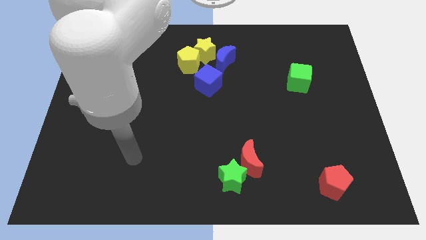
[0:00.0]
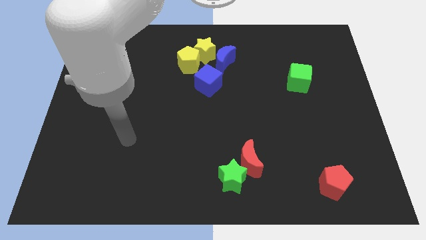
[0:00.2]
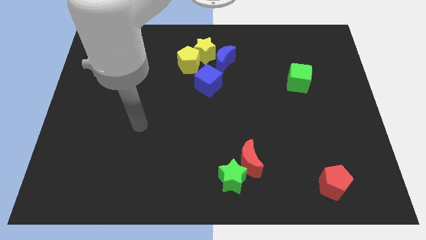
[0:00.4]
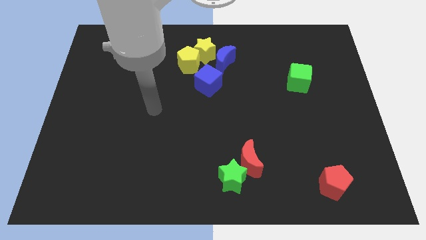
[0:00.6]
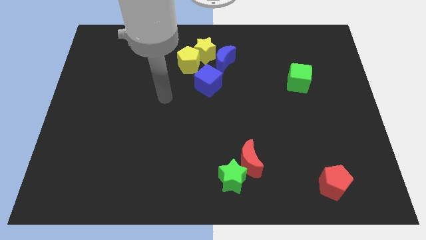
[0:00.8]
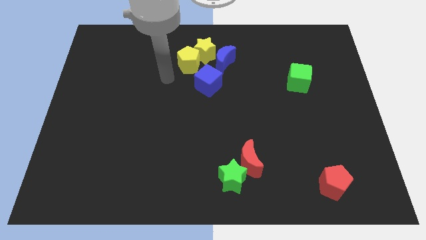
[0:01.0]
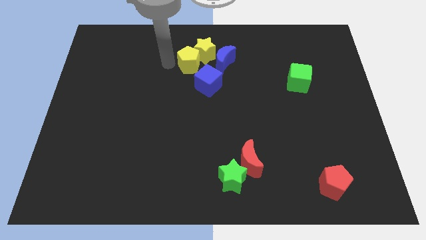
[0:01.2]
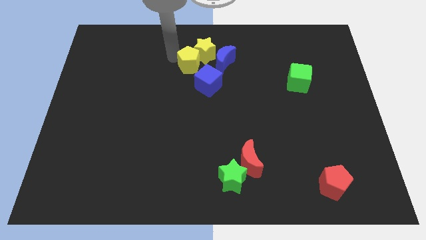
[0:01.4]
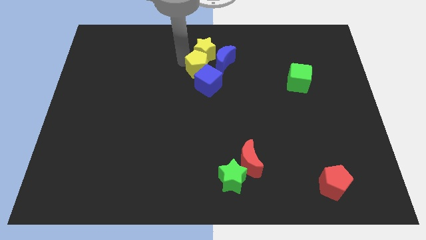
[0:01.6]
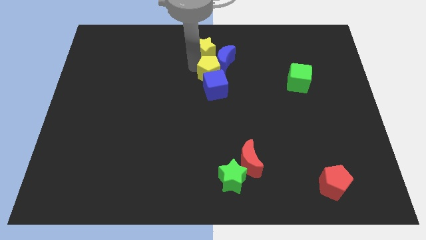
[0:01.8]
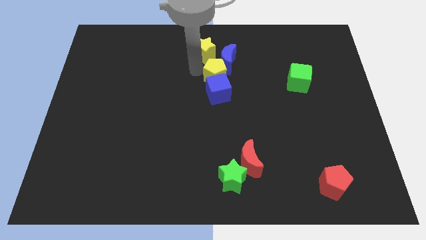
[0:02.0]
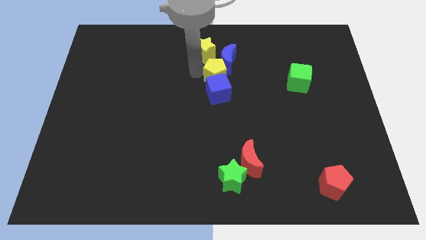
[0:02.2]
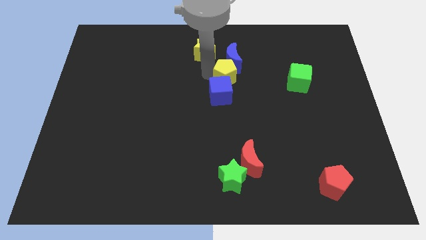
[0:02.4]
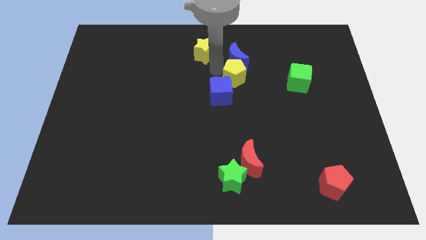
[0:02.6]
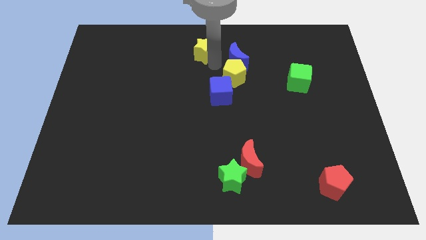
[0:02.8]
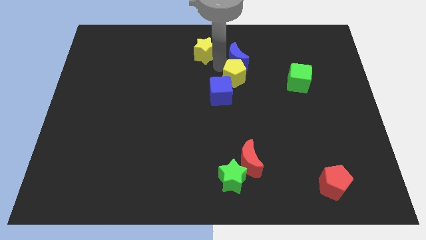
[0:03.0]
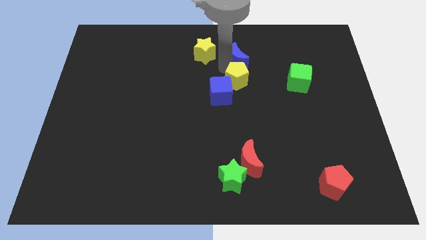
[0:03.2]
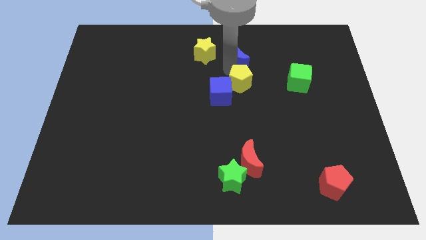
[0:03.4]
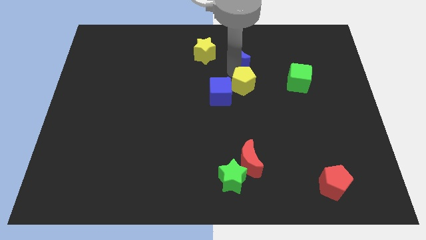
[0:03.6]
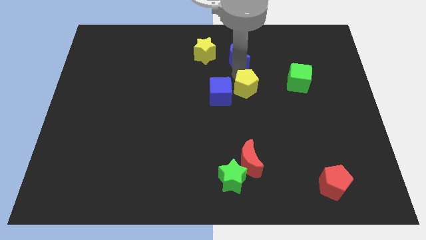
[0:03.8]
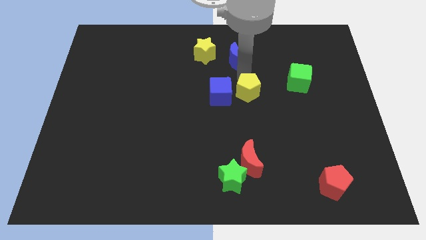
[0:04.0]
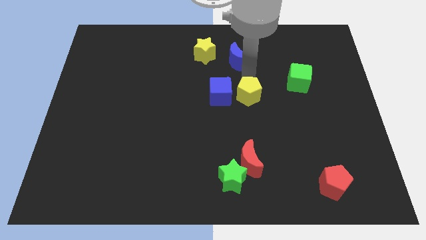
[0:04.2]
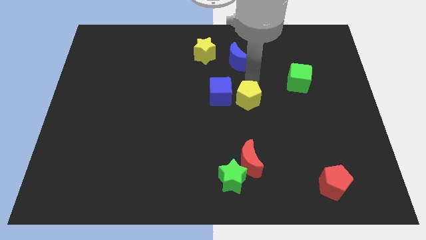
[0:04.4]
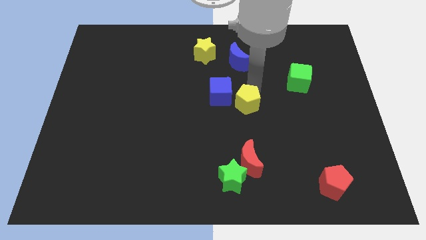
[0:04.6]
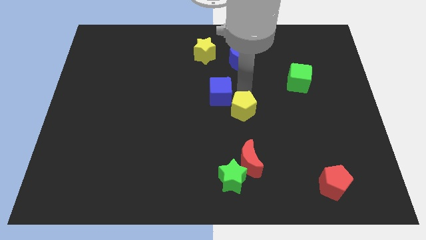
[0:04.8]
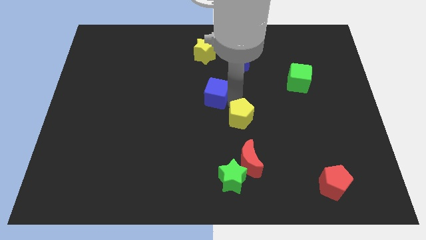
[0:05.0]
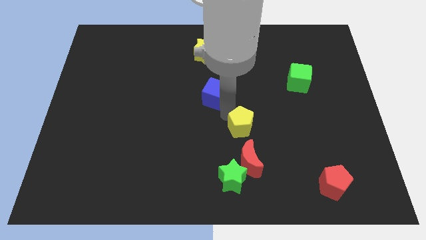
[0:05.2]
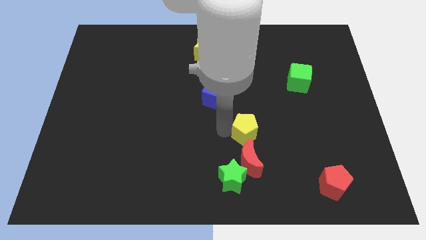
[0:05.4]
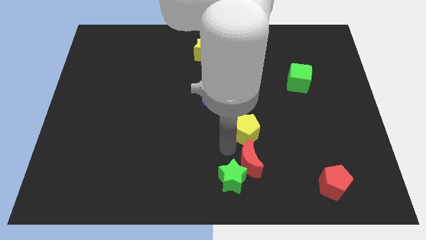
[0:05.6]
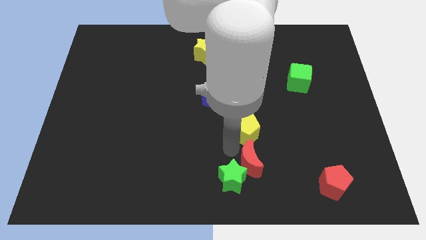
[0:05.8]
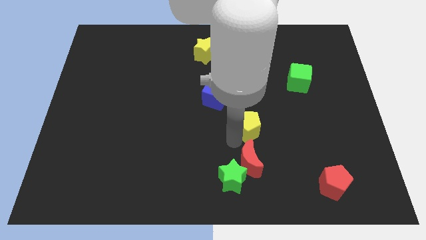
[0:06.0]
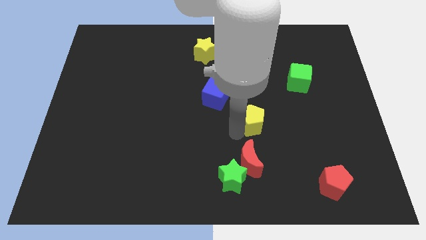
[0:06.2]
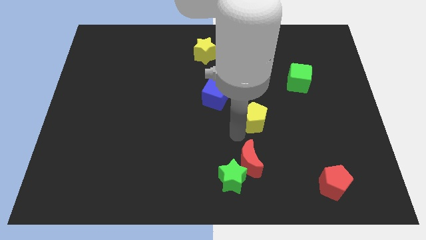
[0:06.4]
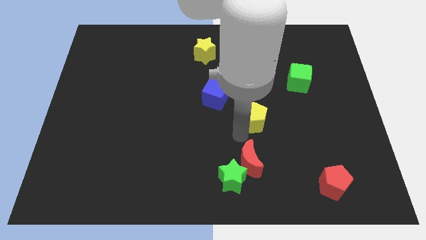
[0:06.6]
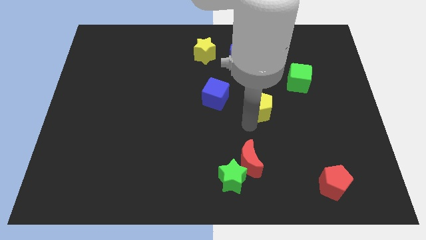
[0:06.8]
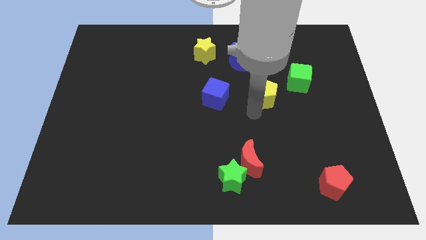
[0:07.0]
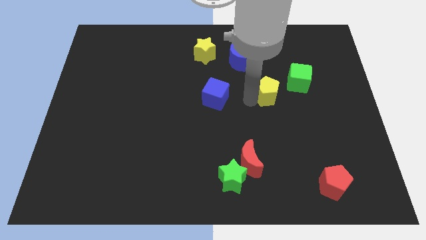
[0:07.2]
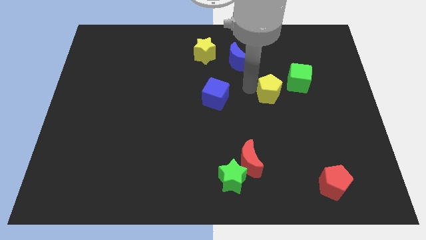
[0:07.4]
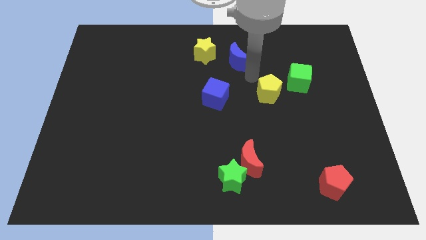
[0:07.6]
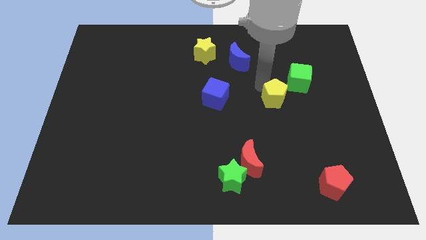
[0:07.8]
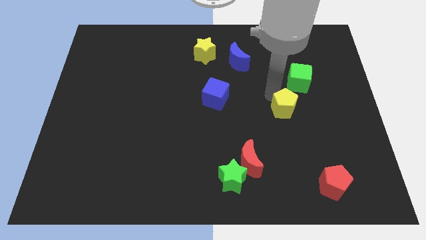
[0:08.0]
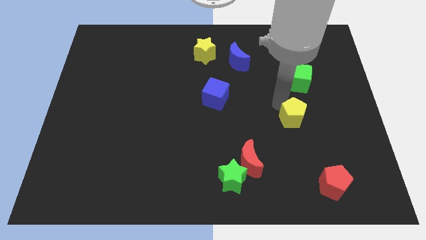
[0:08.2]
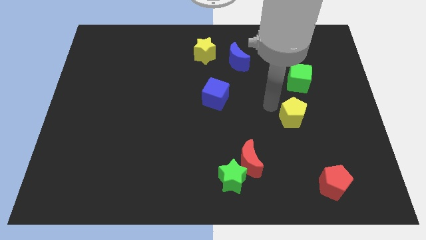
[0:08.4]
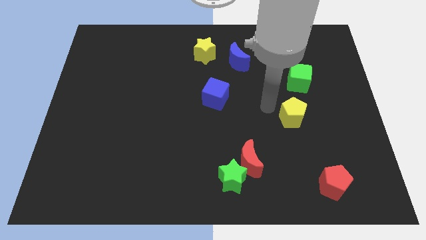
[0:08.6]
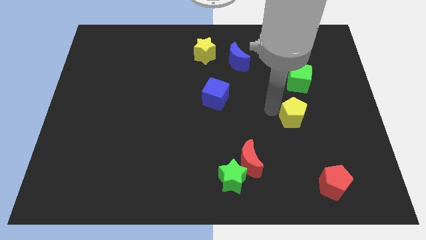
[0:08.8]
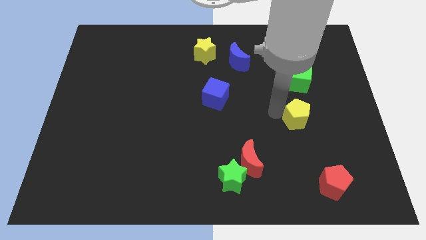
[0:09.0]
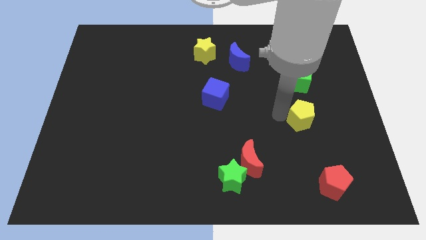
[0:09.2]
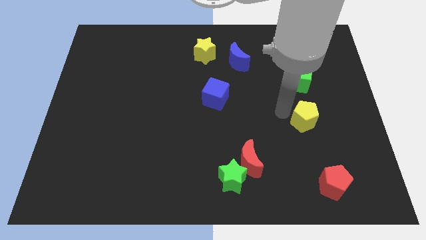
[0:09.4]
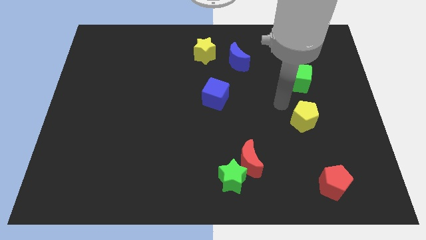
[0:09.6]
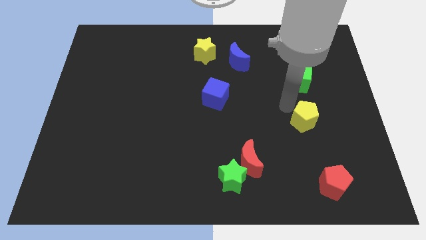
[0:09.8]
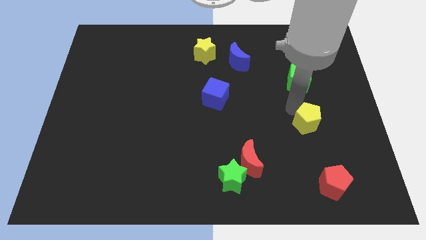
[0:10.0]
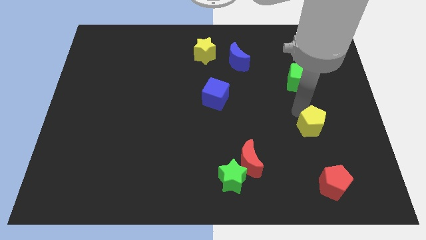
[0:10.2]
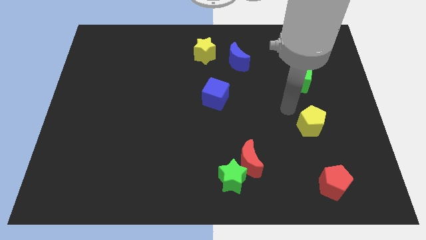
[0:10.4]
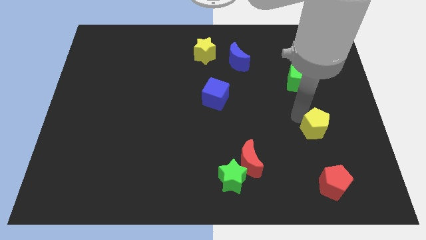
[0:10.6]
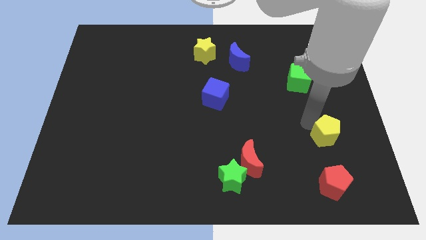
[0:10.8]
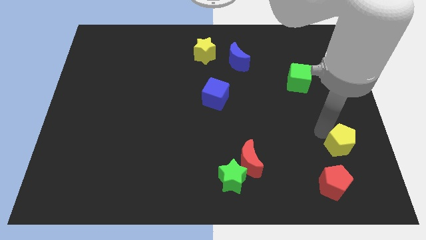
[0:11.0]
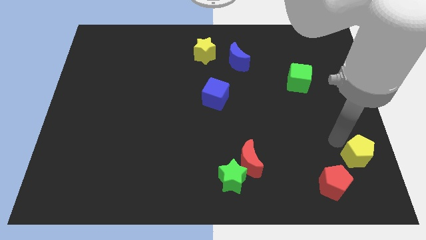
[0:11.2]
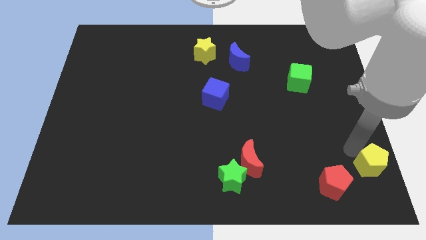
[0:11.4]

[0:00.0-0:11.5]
slide the yellow pentagon to the bottom right corner
